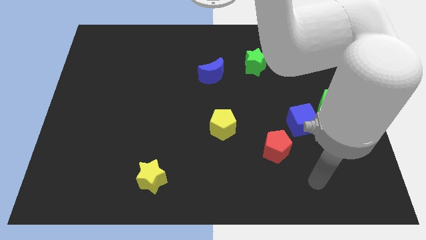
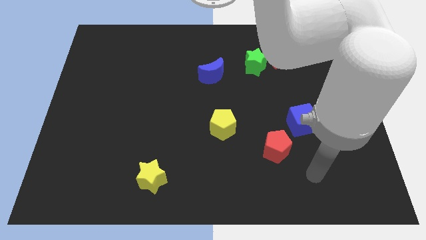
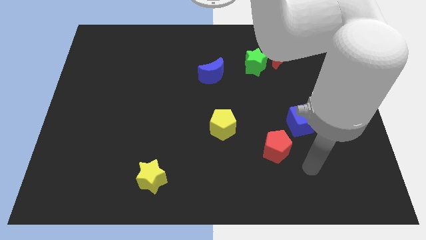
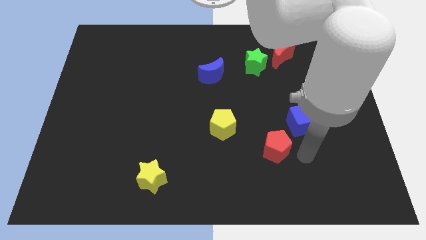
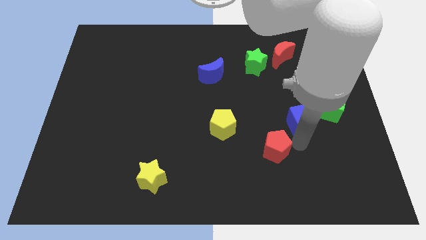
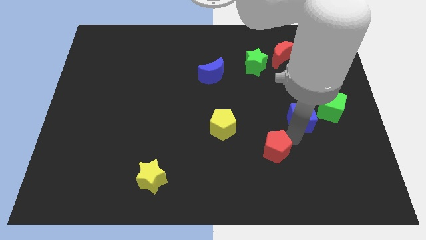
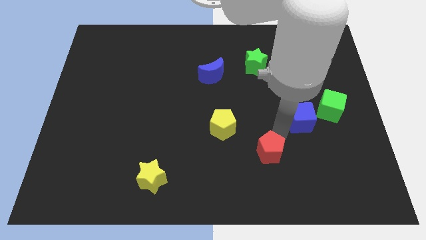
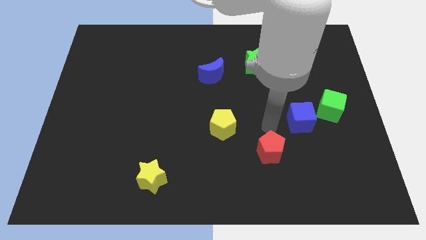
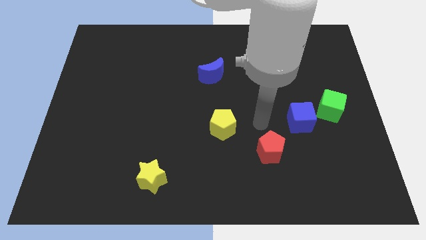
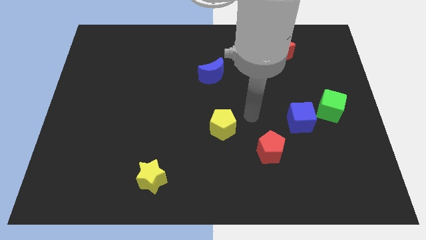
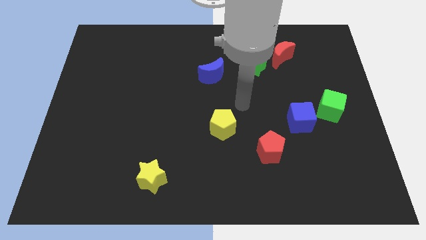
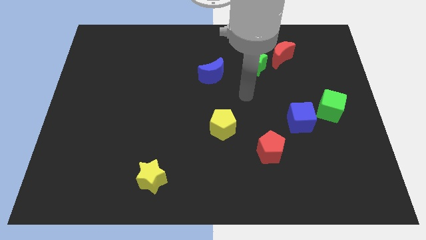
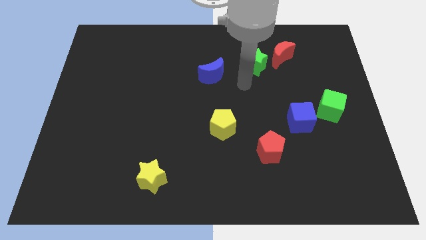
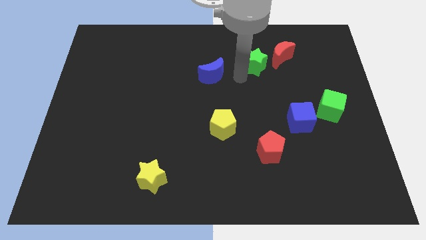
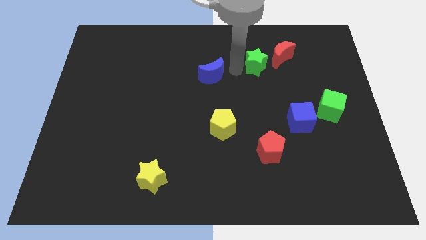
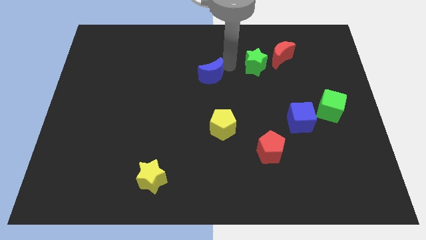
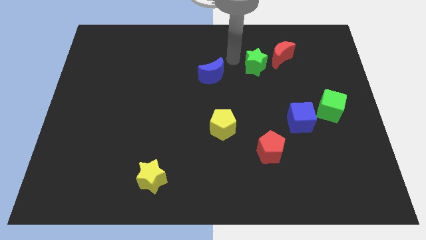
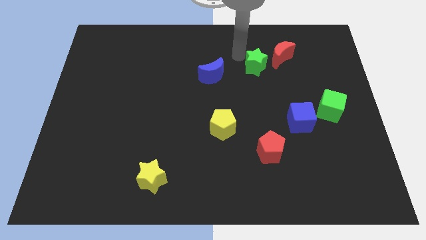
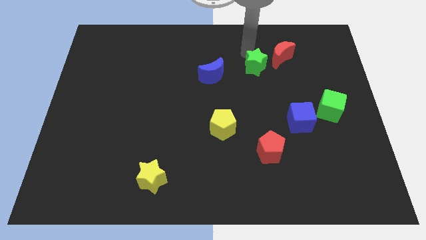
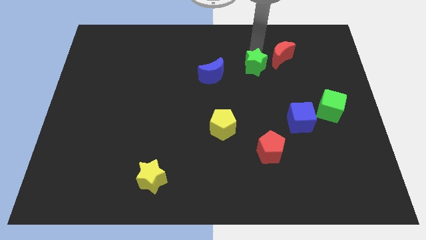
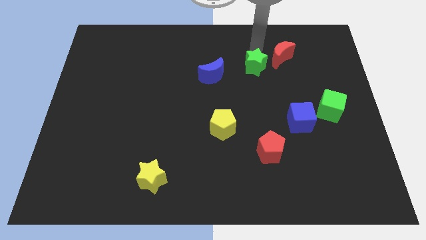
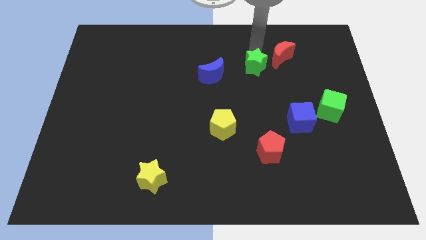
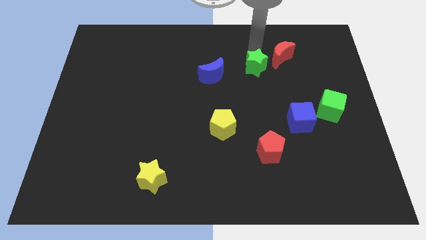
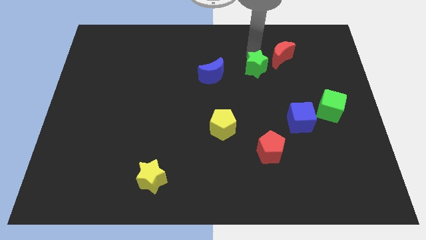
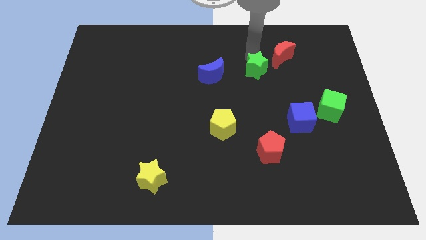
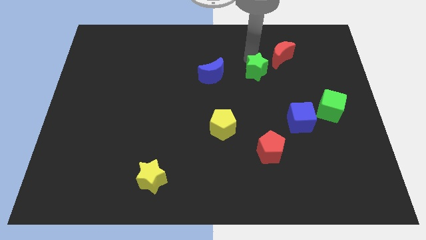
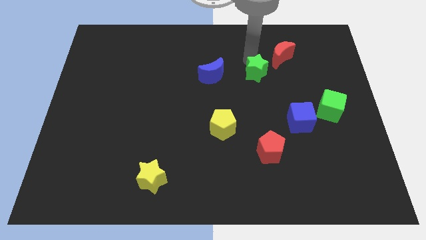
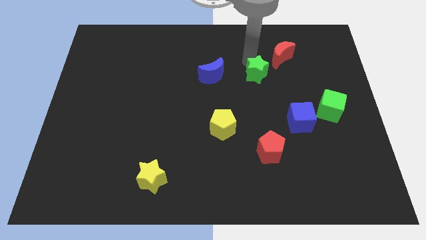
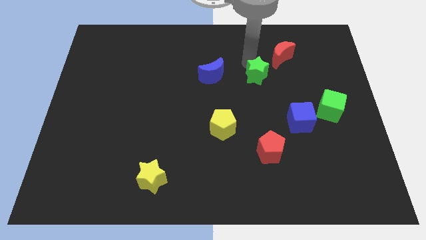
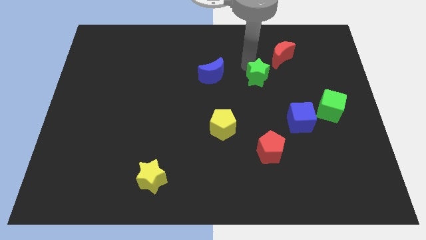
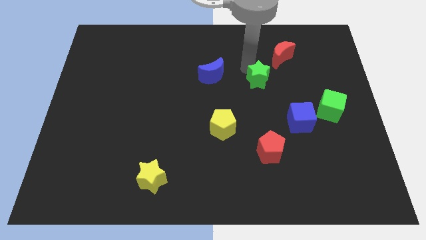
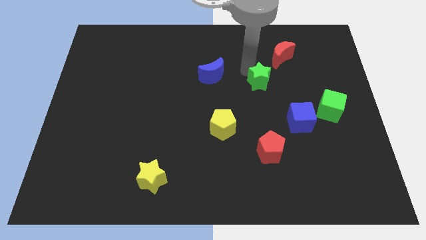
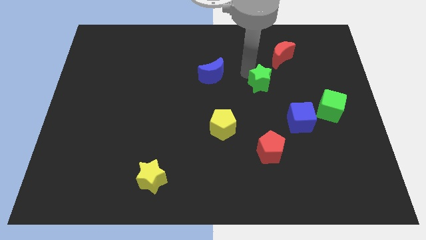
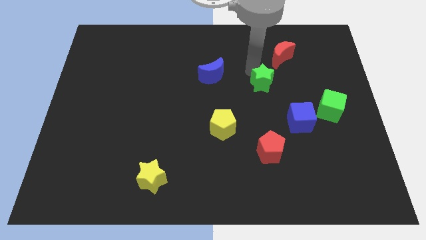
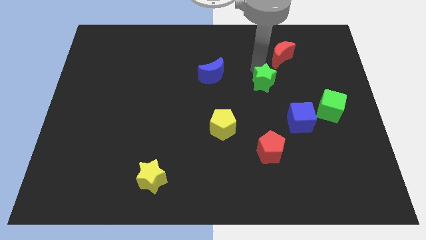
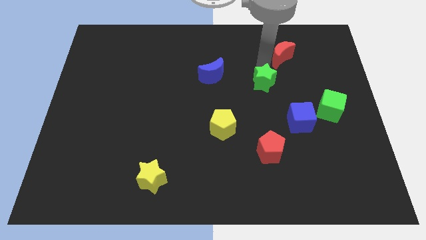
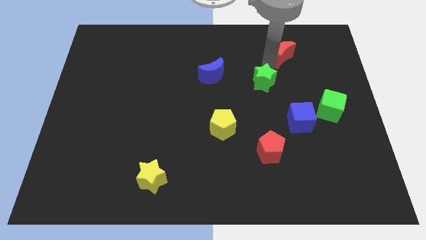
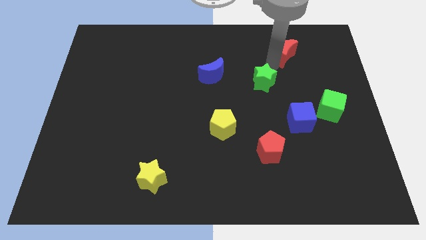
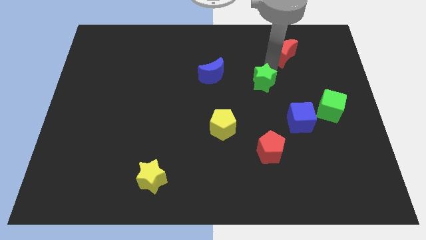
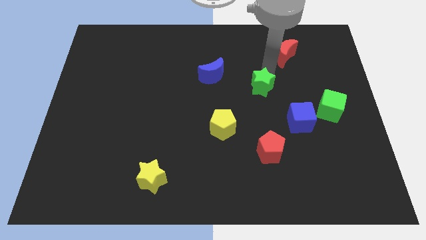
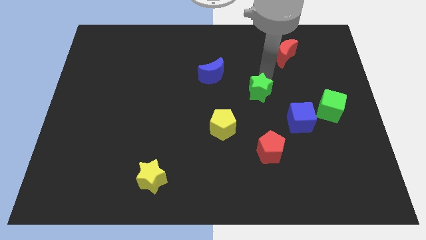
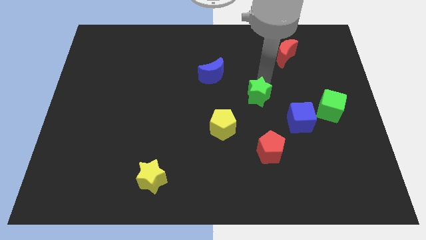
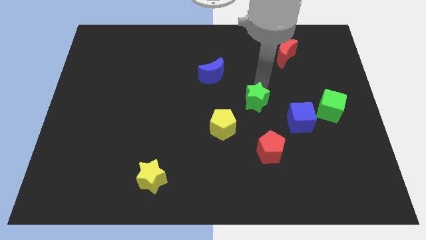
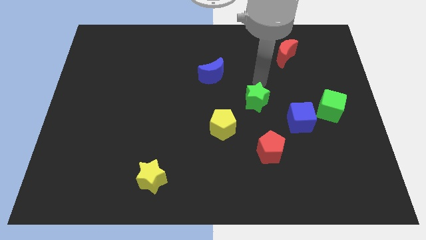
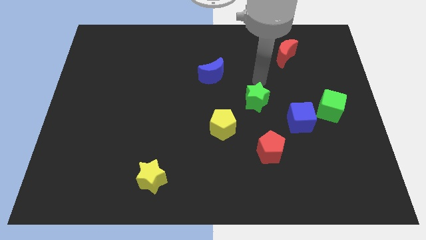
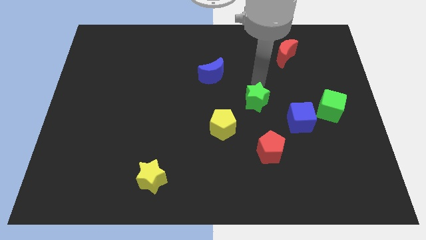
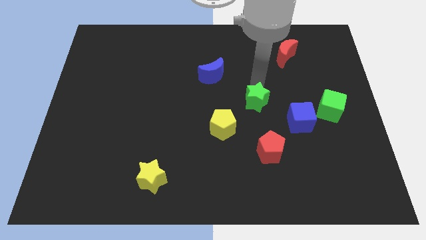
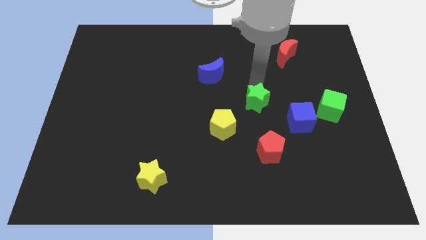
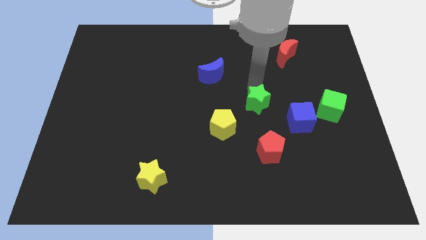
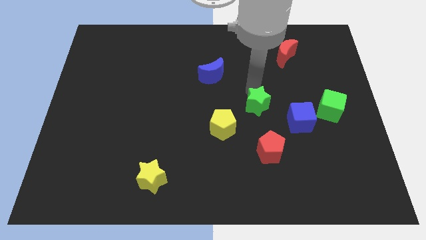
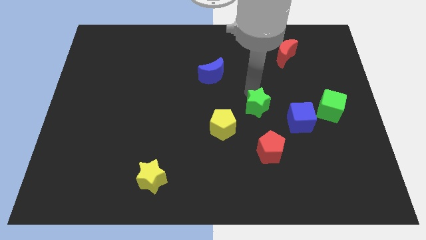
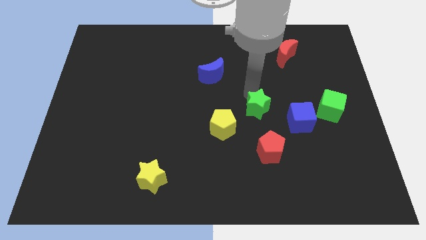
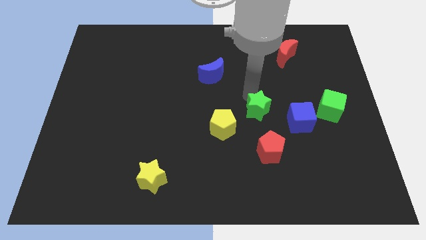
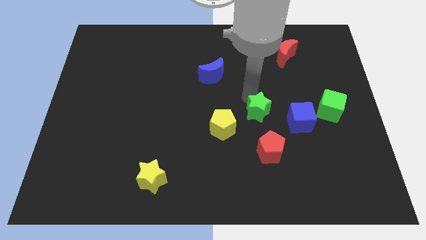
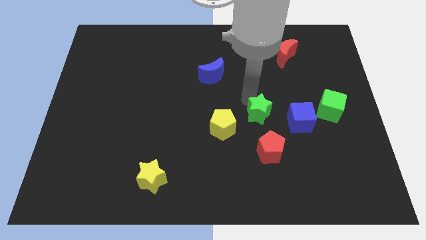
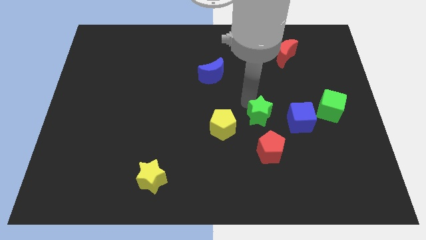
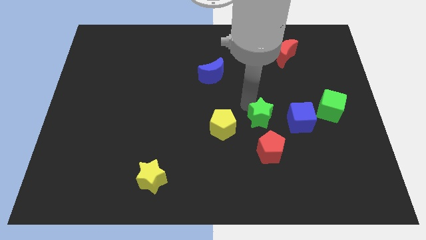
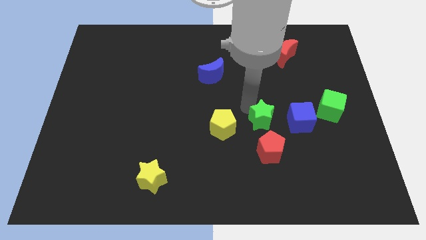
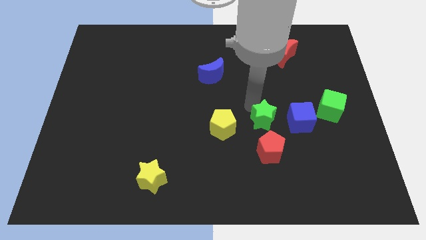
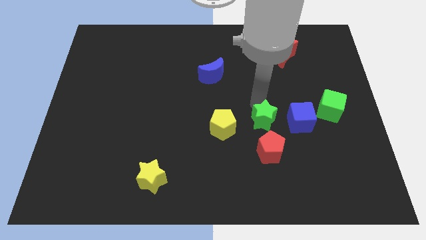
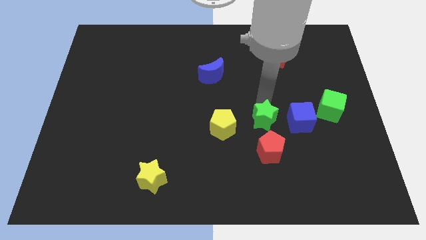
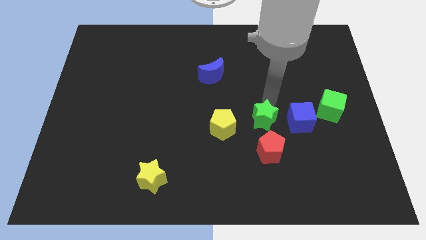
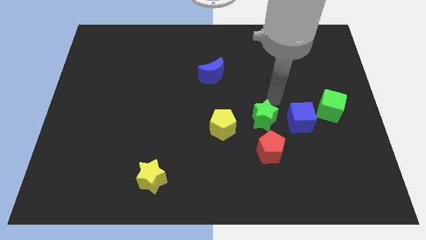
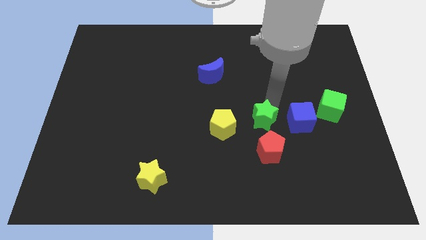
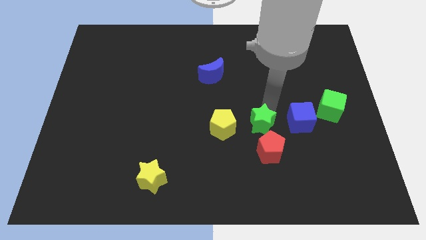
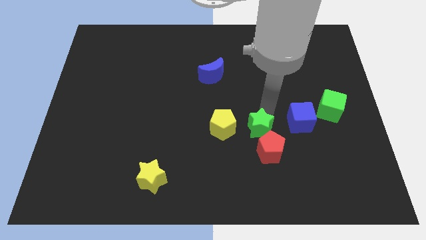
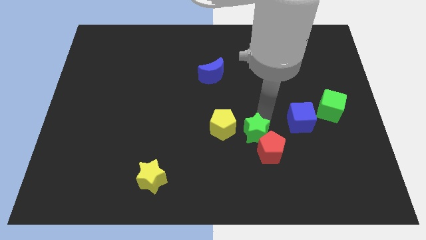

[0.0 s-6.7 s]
push the green star downwards

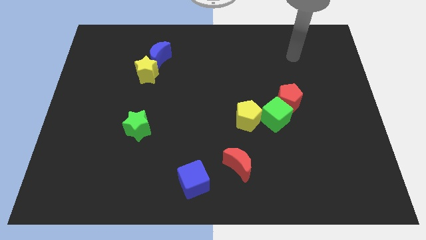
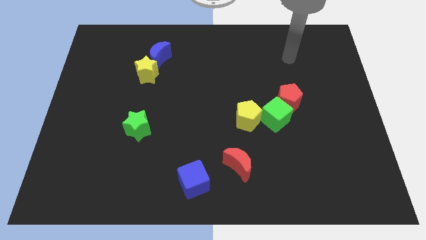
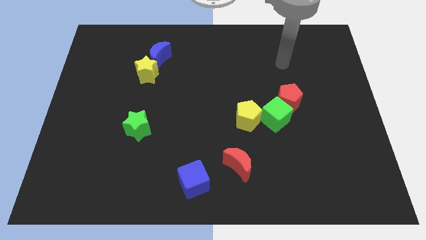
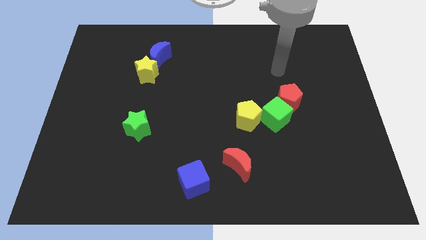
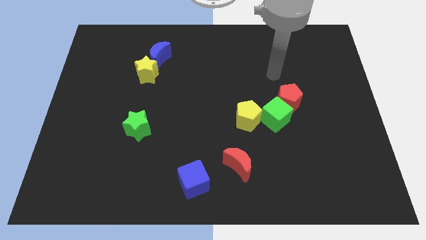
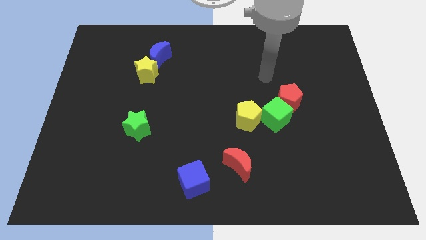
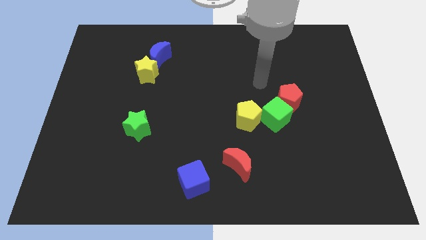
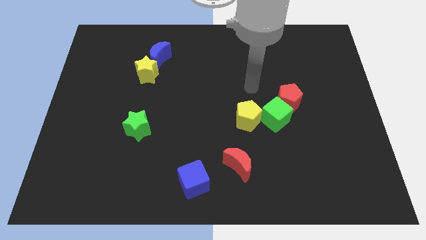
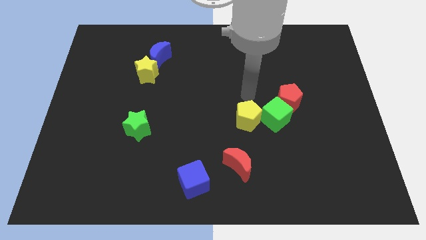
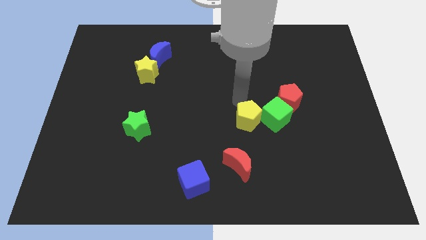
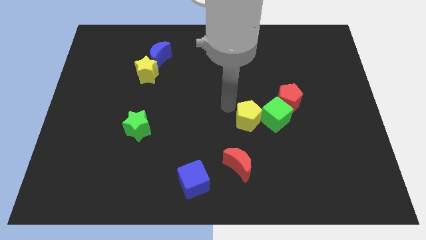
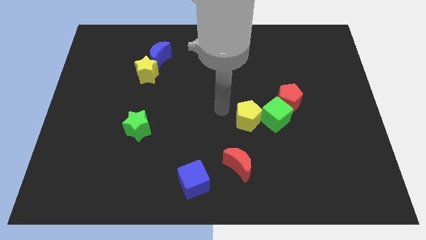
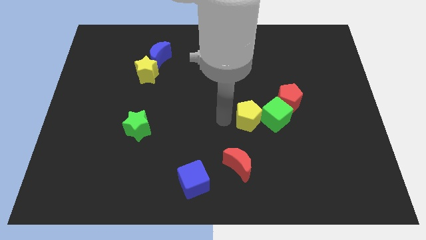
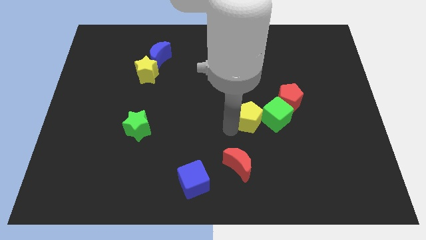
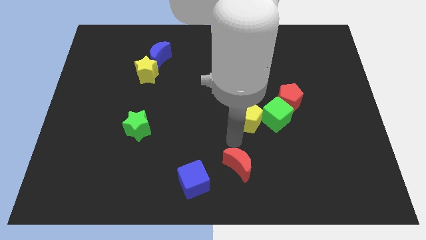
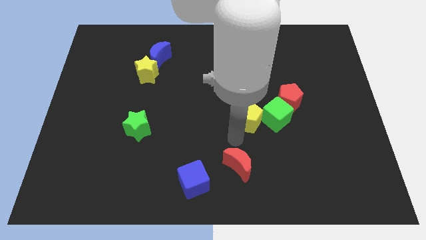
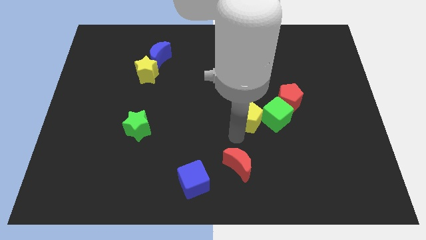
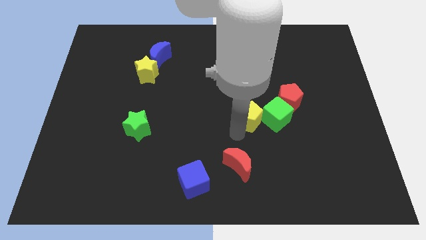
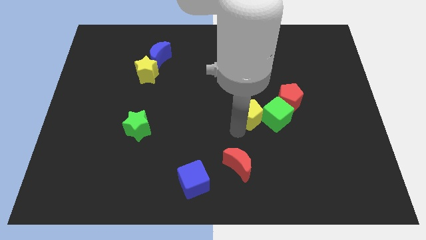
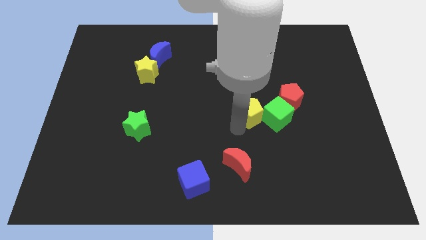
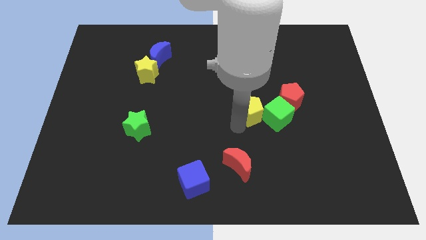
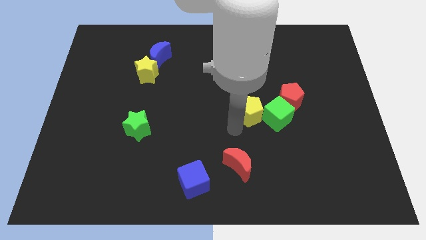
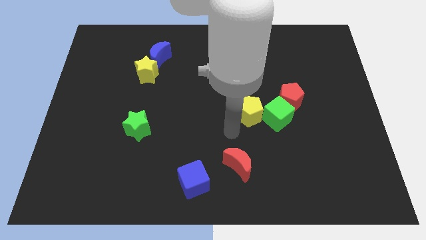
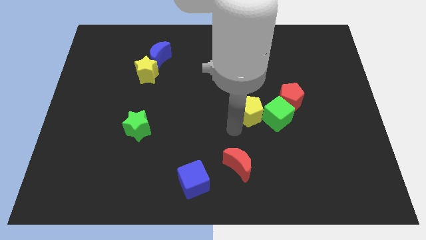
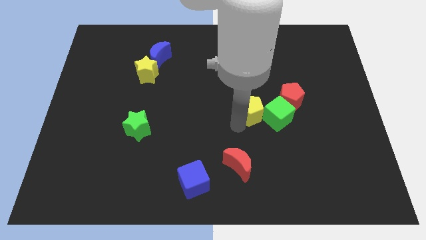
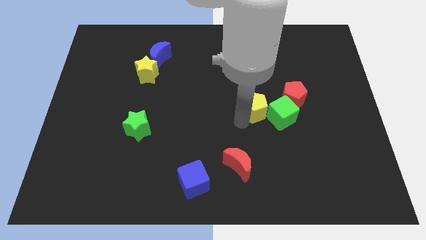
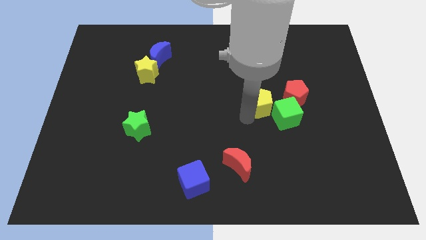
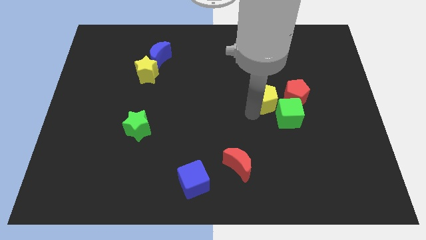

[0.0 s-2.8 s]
move the yellow pentagon a little upwards and then right
